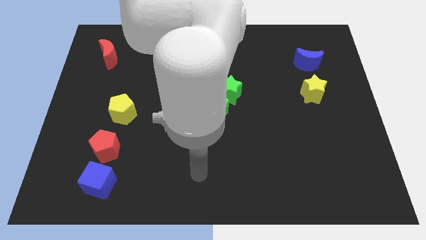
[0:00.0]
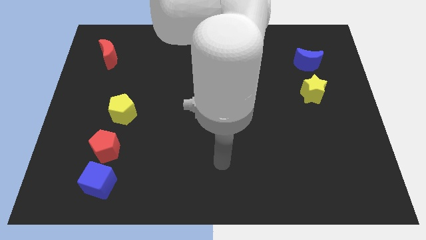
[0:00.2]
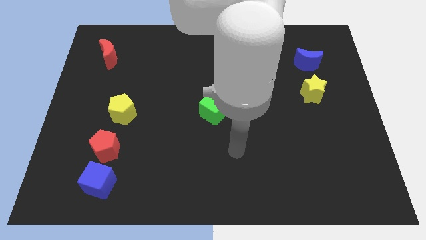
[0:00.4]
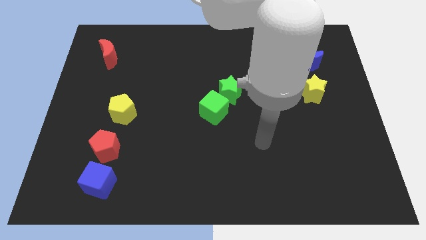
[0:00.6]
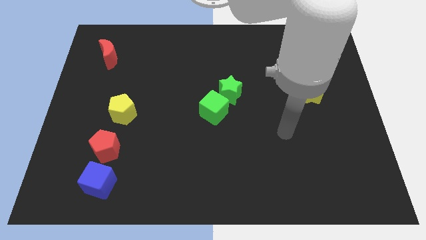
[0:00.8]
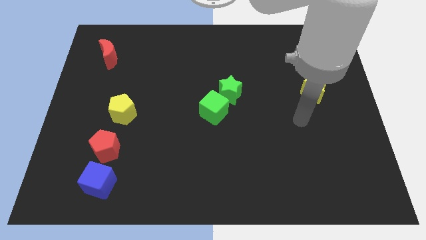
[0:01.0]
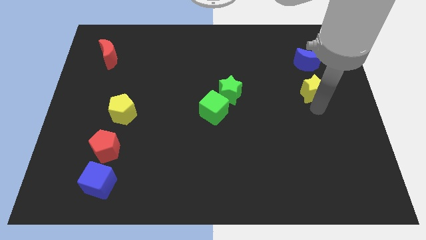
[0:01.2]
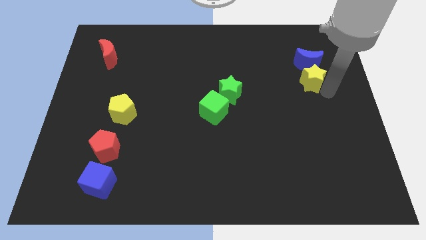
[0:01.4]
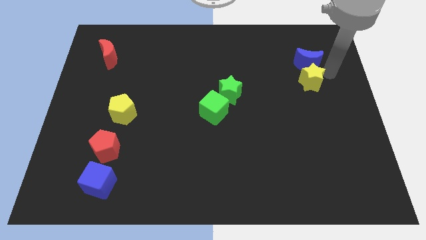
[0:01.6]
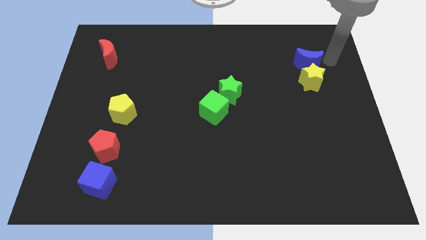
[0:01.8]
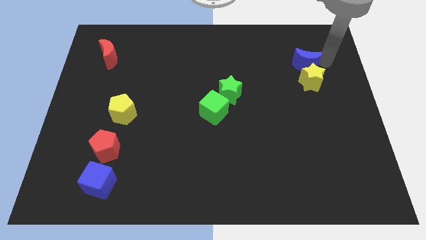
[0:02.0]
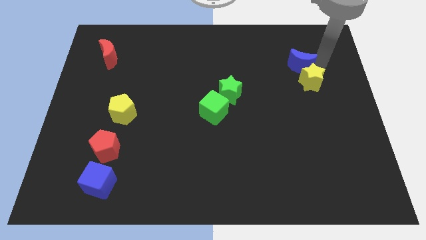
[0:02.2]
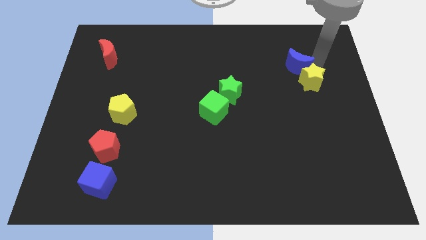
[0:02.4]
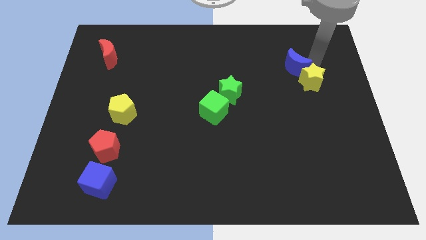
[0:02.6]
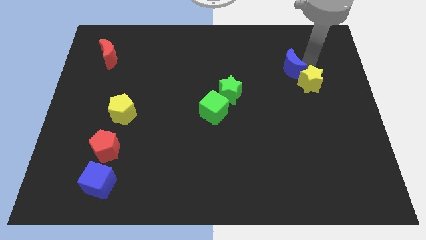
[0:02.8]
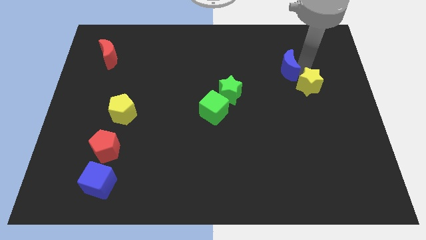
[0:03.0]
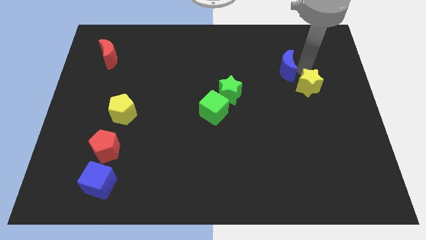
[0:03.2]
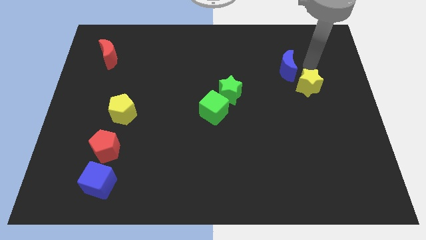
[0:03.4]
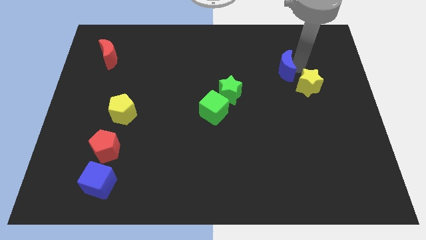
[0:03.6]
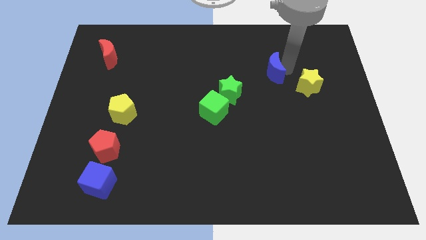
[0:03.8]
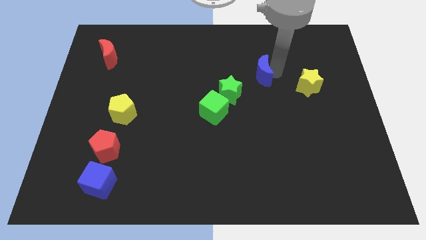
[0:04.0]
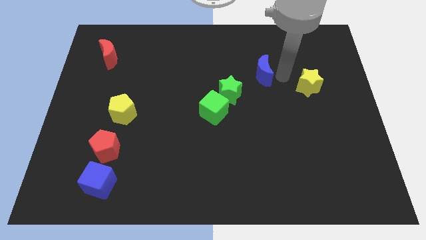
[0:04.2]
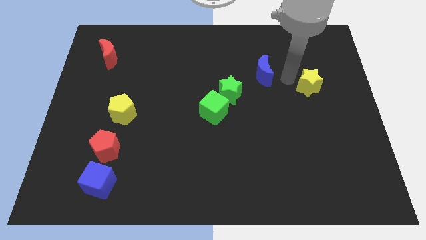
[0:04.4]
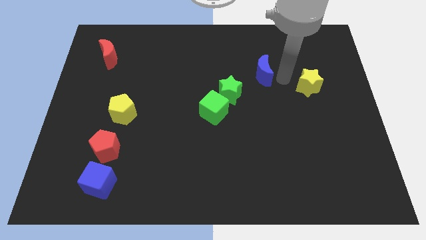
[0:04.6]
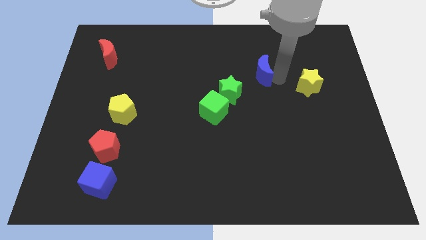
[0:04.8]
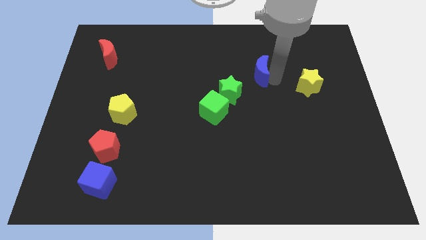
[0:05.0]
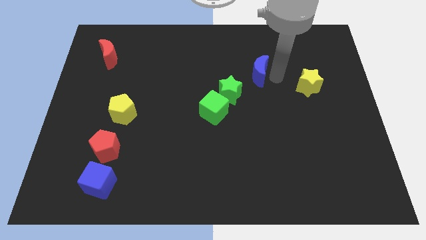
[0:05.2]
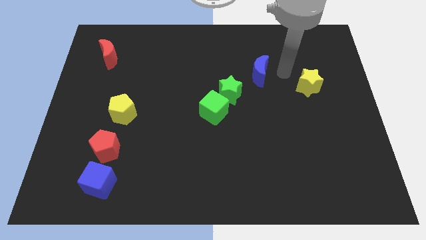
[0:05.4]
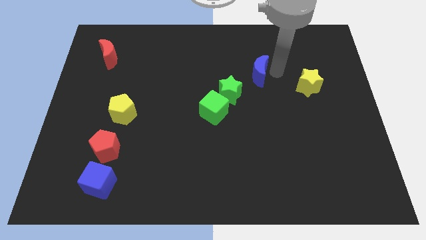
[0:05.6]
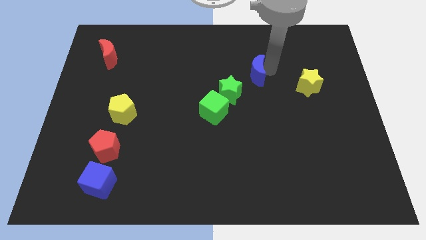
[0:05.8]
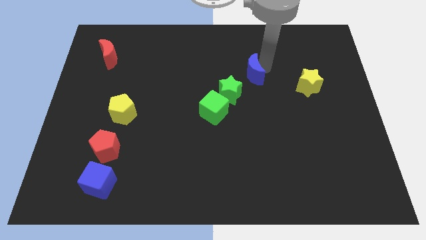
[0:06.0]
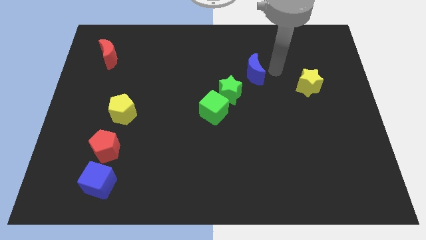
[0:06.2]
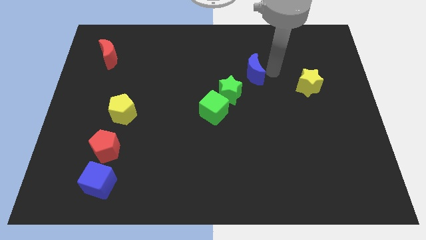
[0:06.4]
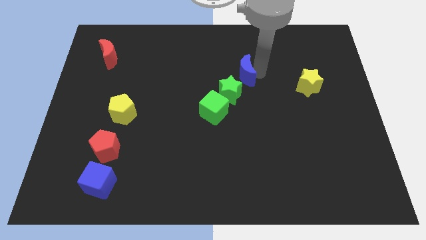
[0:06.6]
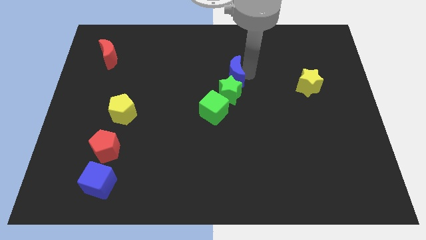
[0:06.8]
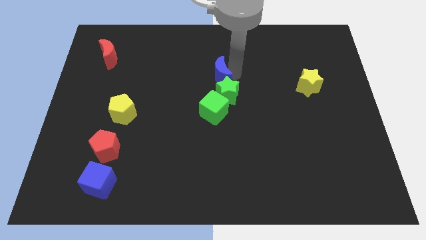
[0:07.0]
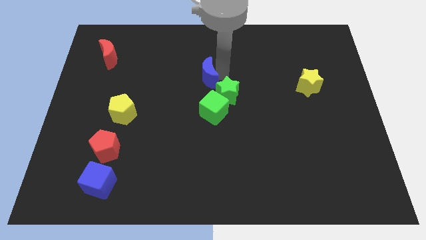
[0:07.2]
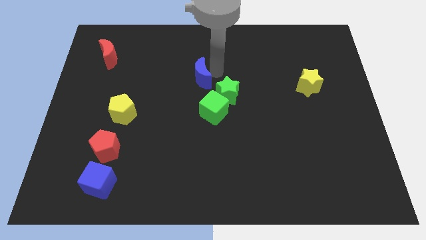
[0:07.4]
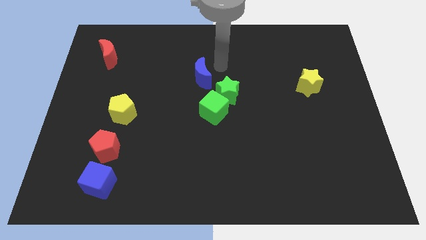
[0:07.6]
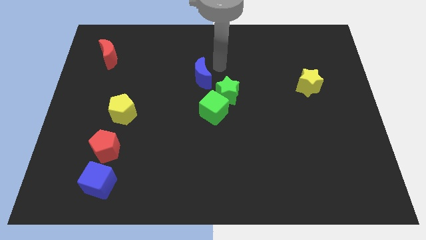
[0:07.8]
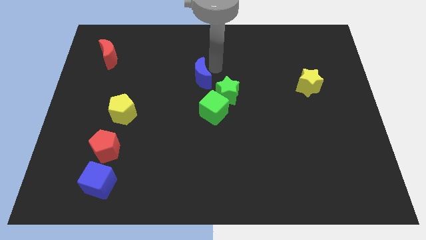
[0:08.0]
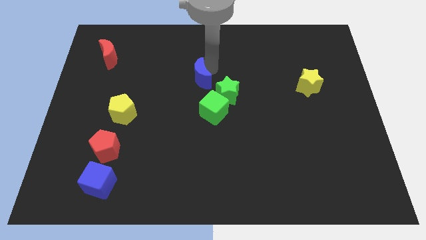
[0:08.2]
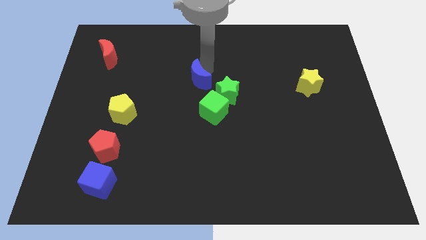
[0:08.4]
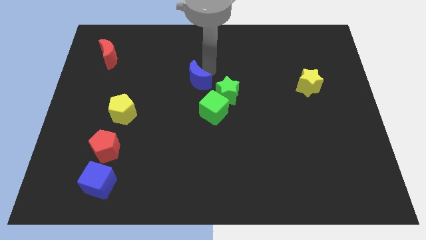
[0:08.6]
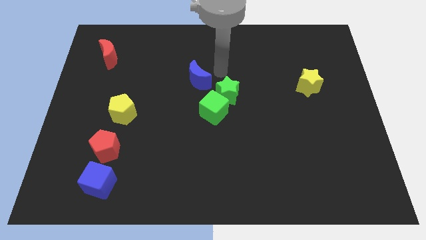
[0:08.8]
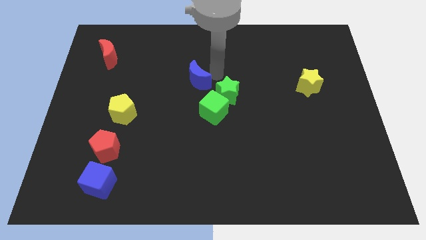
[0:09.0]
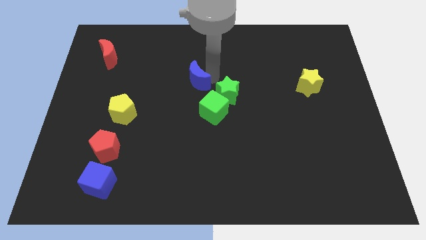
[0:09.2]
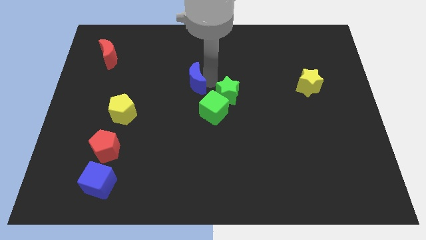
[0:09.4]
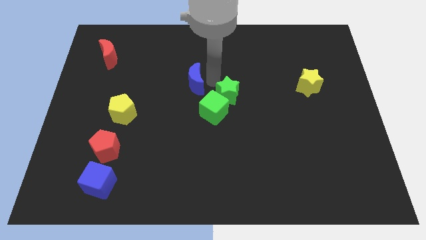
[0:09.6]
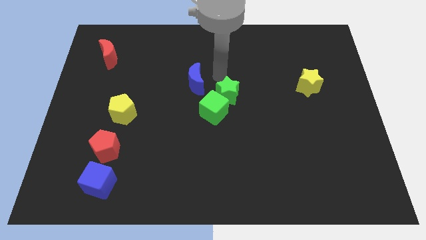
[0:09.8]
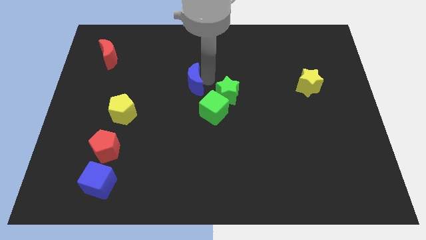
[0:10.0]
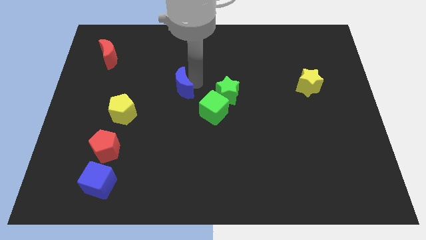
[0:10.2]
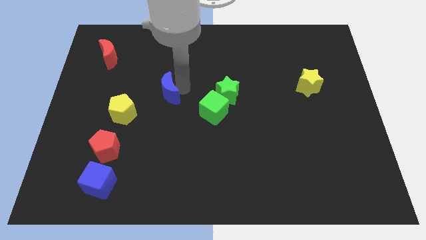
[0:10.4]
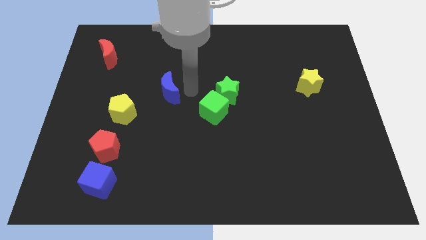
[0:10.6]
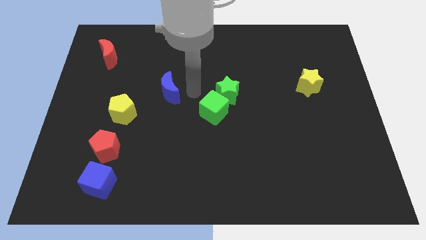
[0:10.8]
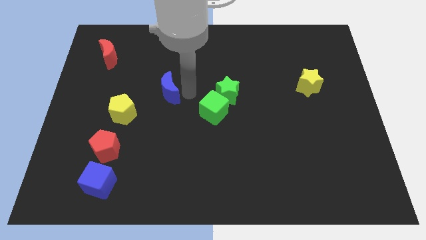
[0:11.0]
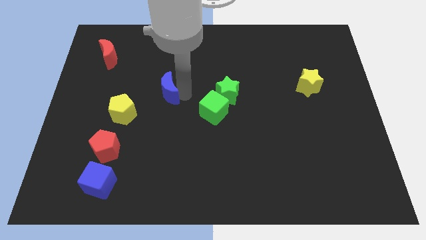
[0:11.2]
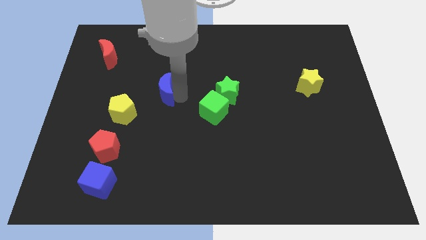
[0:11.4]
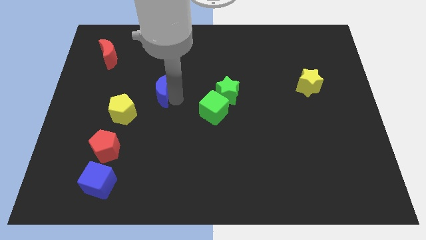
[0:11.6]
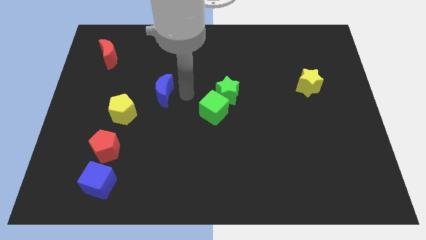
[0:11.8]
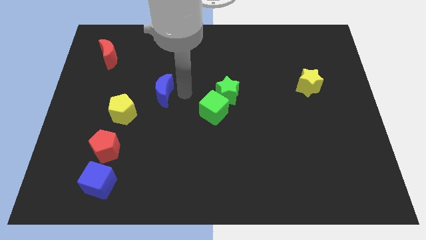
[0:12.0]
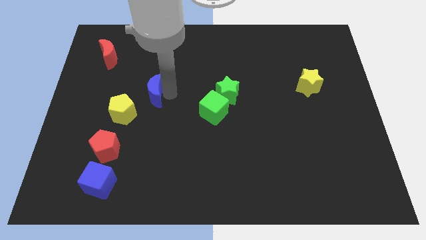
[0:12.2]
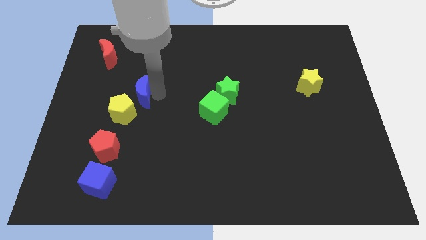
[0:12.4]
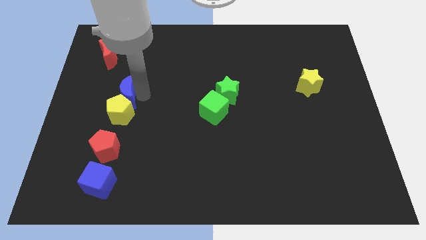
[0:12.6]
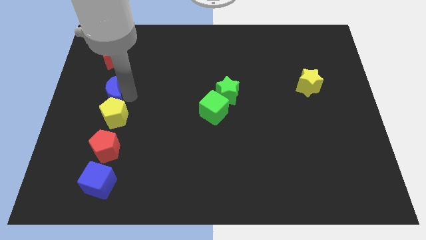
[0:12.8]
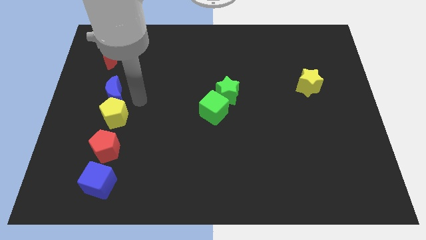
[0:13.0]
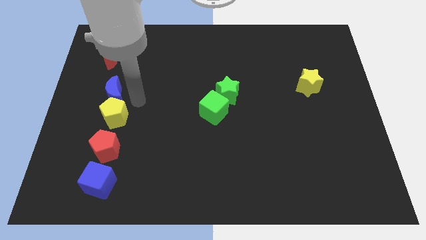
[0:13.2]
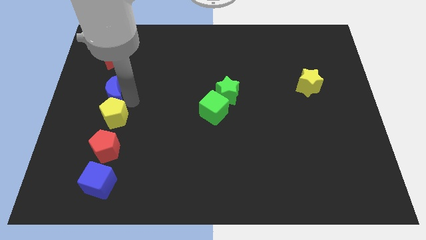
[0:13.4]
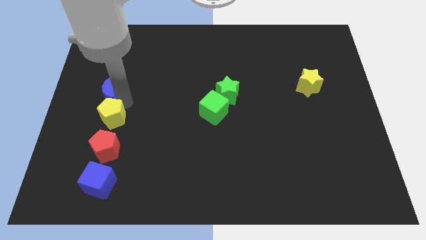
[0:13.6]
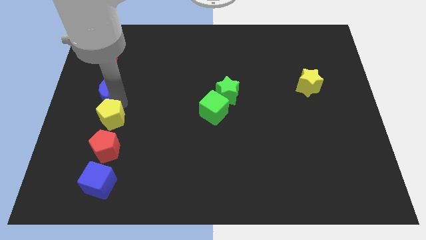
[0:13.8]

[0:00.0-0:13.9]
push the blue moon to the left side

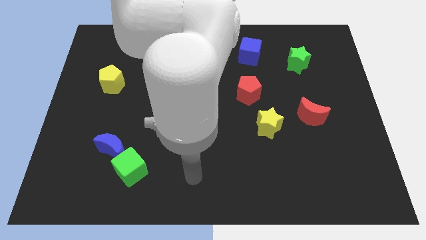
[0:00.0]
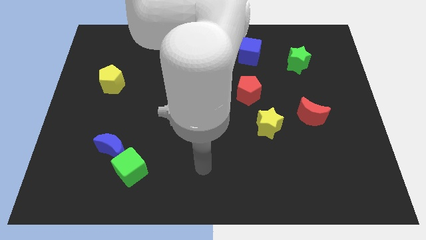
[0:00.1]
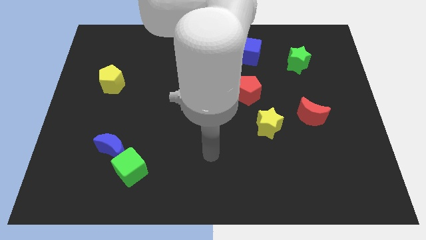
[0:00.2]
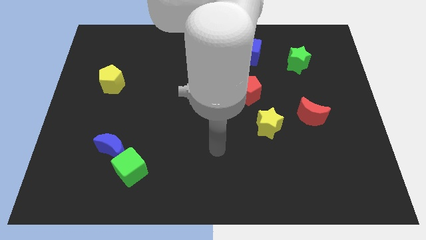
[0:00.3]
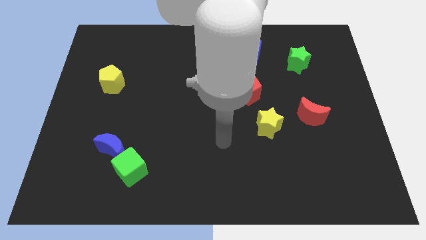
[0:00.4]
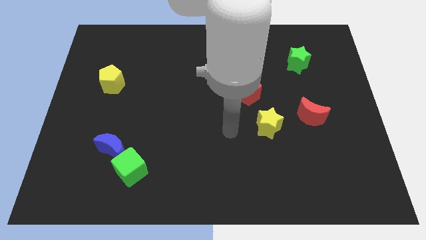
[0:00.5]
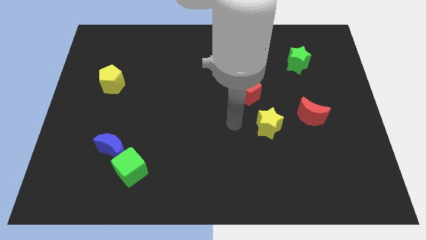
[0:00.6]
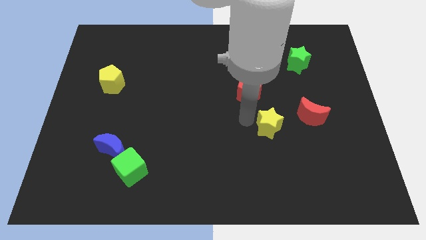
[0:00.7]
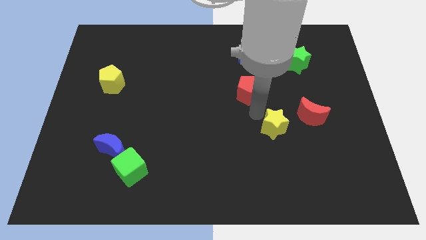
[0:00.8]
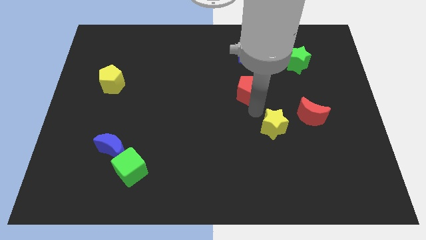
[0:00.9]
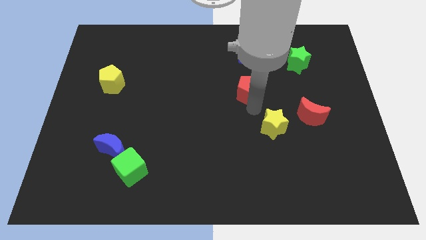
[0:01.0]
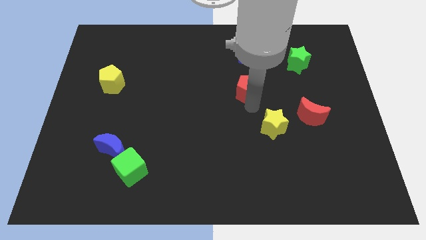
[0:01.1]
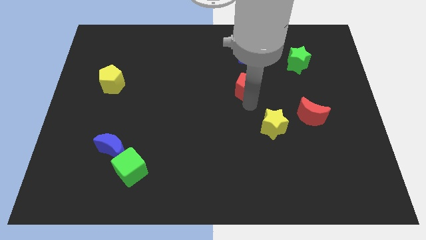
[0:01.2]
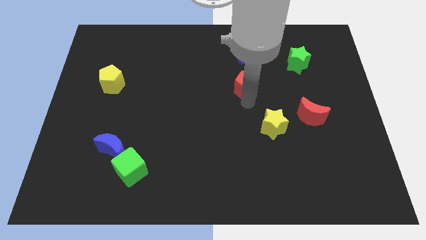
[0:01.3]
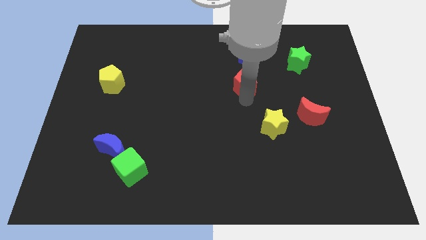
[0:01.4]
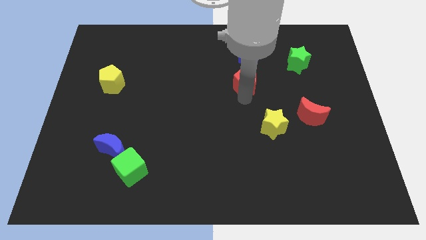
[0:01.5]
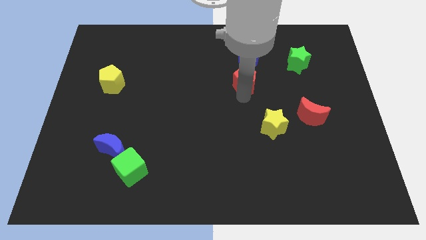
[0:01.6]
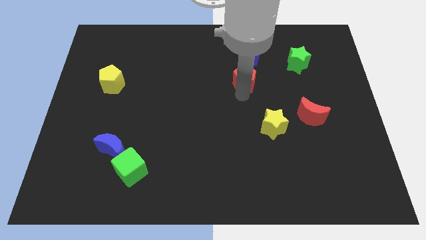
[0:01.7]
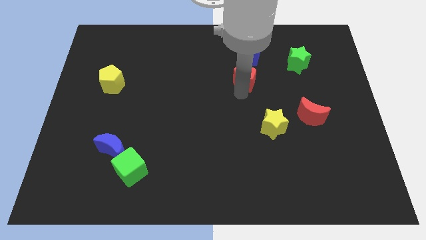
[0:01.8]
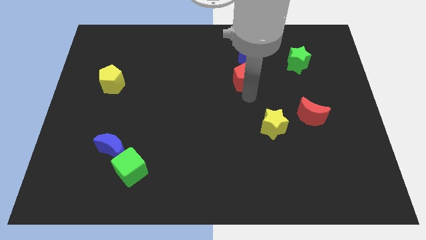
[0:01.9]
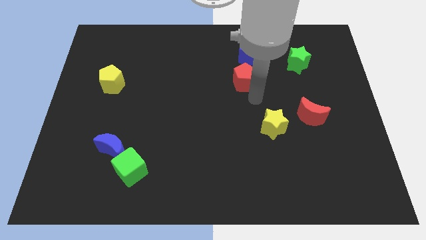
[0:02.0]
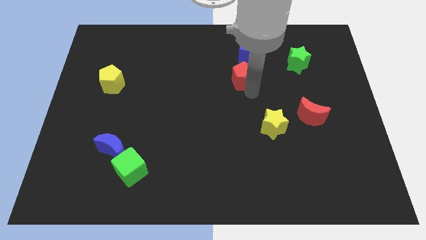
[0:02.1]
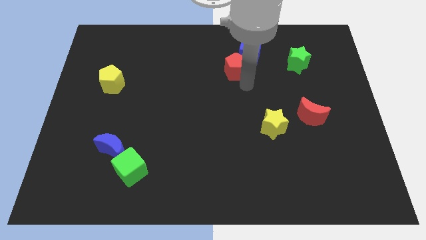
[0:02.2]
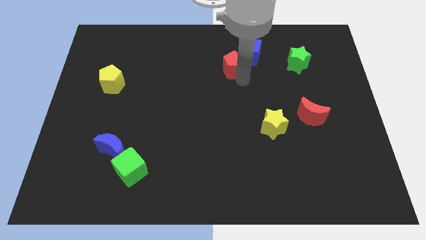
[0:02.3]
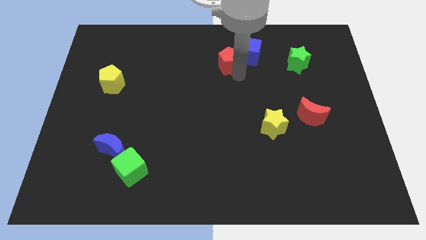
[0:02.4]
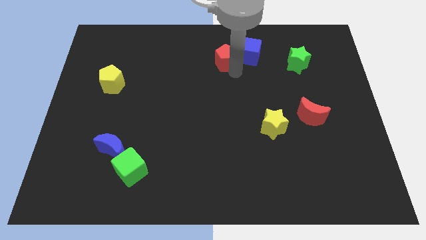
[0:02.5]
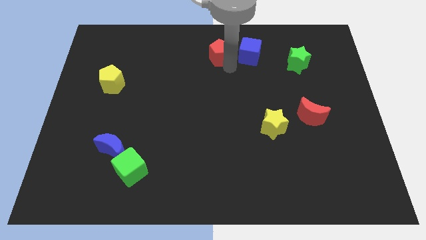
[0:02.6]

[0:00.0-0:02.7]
push the red pentagon to the top
